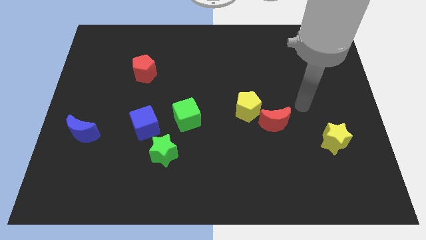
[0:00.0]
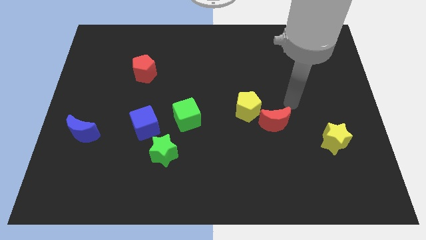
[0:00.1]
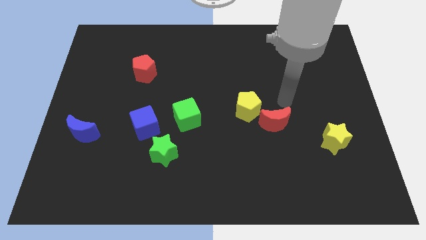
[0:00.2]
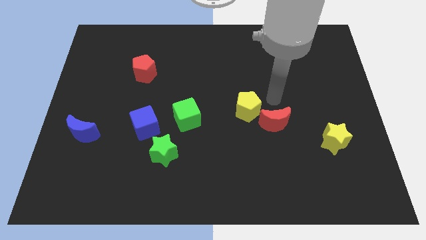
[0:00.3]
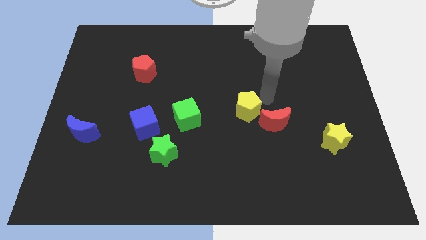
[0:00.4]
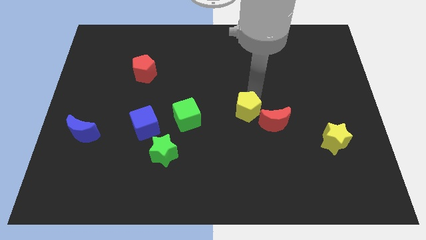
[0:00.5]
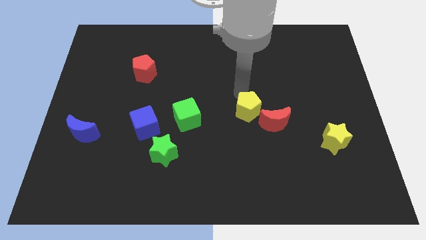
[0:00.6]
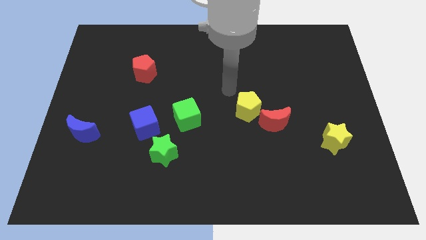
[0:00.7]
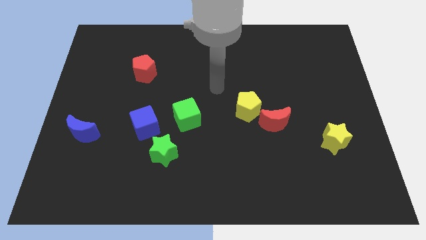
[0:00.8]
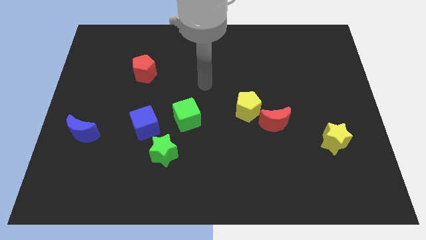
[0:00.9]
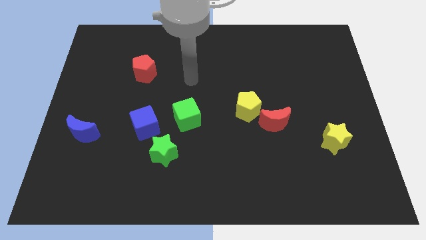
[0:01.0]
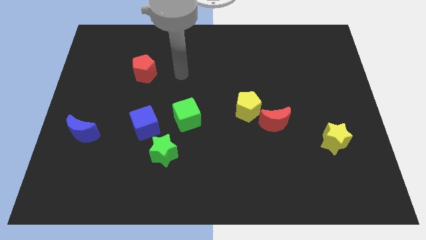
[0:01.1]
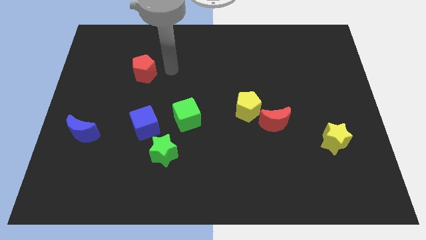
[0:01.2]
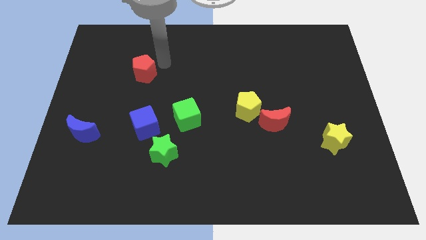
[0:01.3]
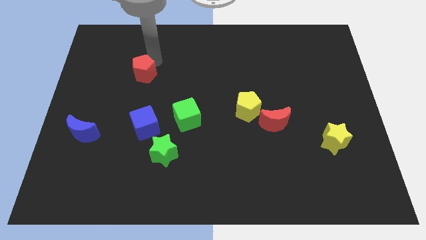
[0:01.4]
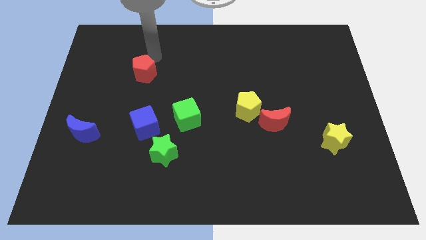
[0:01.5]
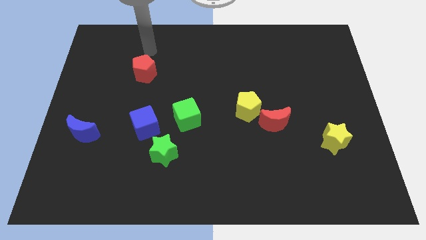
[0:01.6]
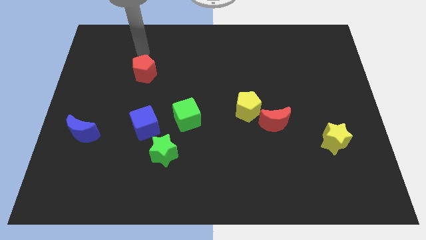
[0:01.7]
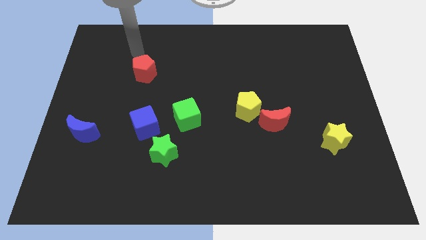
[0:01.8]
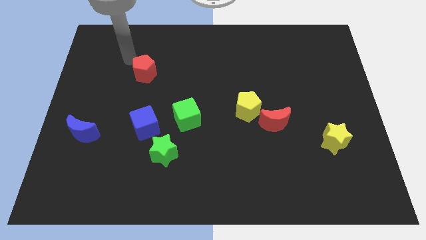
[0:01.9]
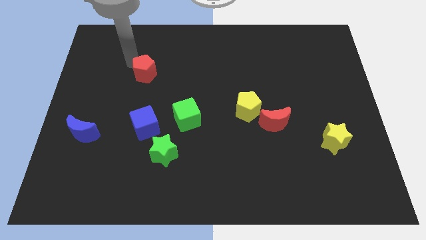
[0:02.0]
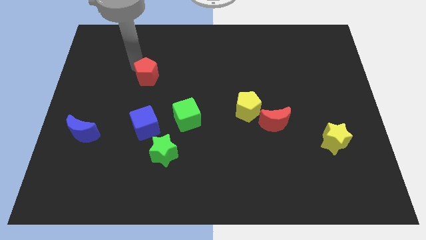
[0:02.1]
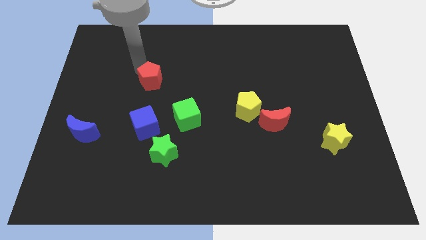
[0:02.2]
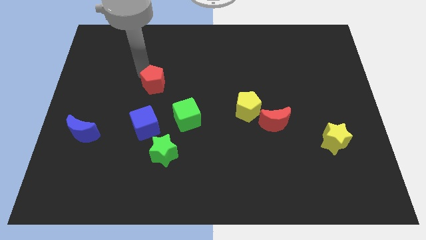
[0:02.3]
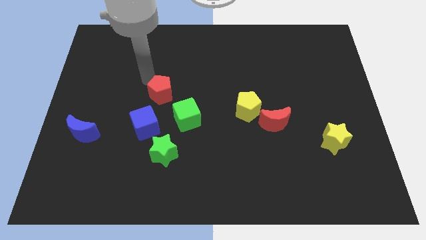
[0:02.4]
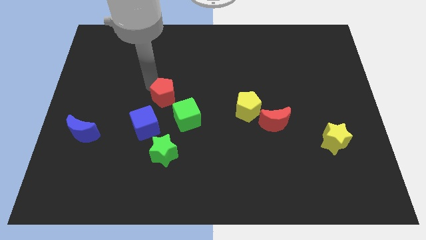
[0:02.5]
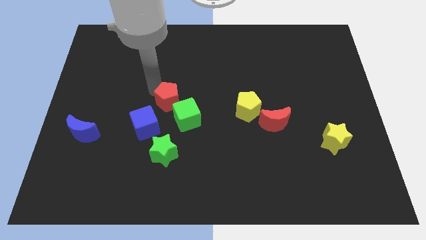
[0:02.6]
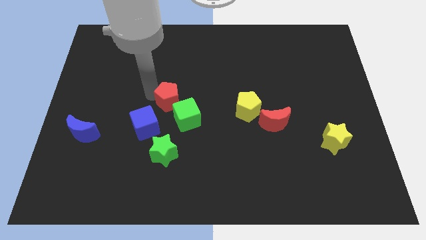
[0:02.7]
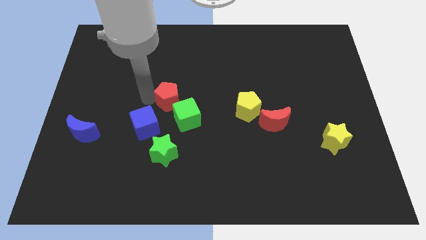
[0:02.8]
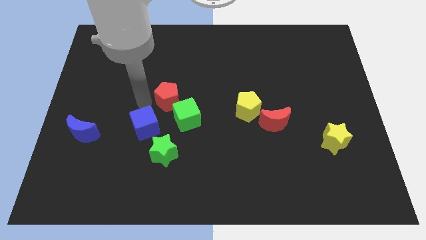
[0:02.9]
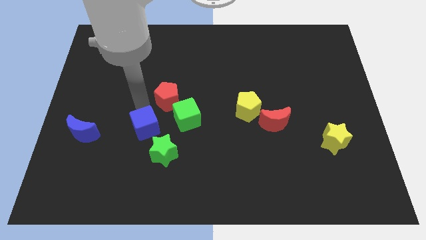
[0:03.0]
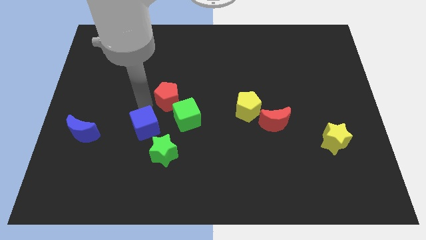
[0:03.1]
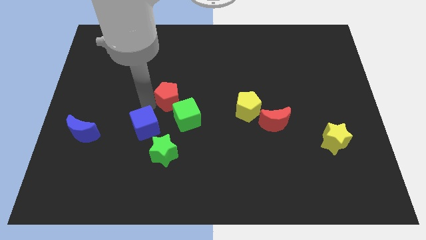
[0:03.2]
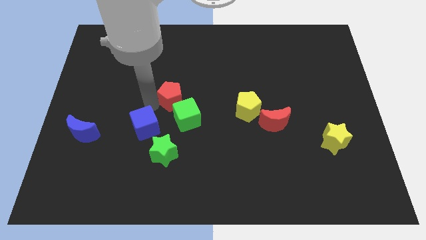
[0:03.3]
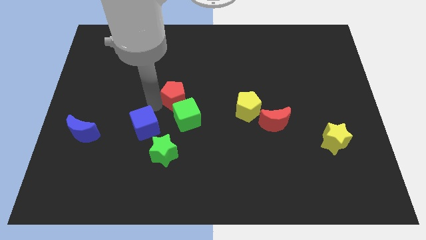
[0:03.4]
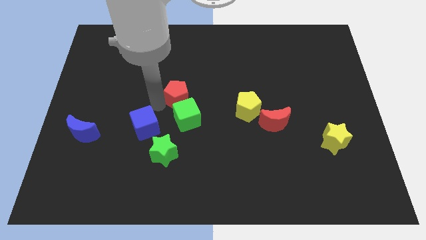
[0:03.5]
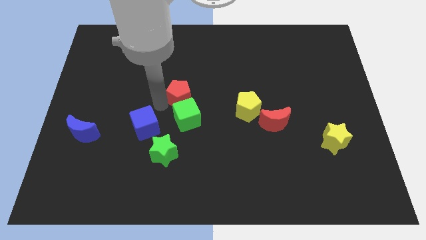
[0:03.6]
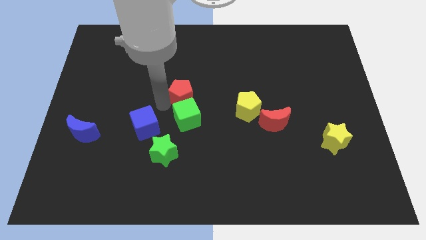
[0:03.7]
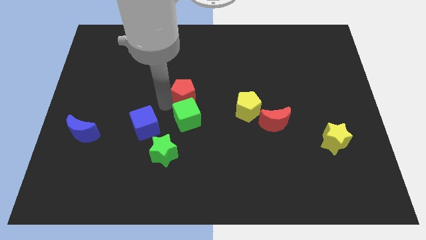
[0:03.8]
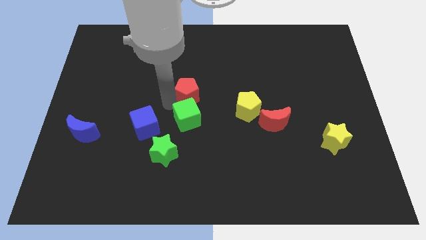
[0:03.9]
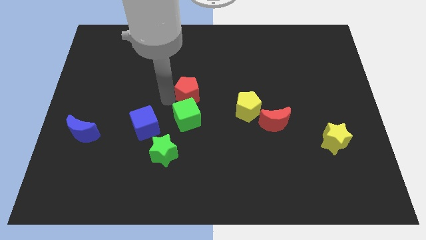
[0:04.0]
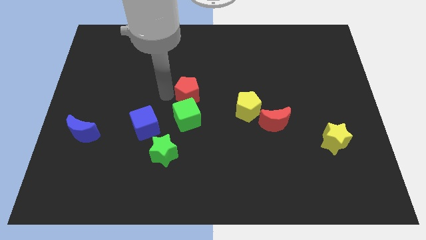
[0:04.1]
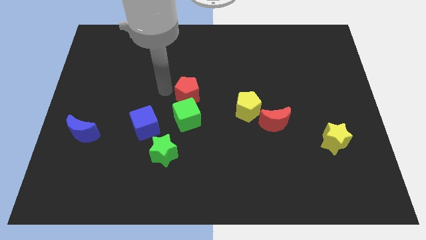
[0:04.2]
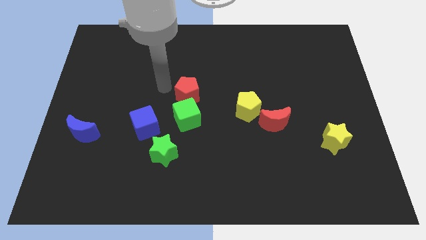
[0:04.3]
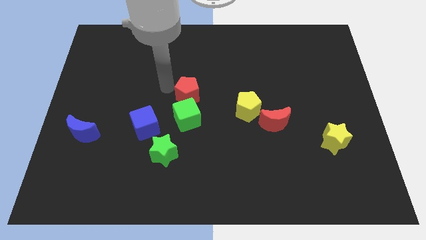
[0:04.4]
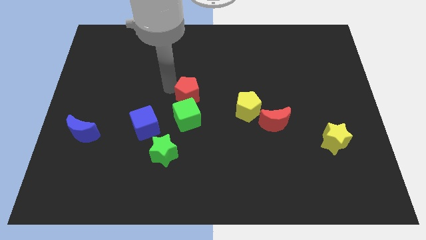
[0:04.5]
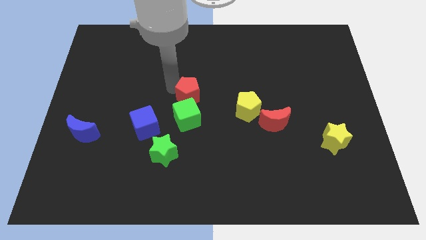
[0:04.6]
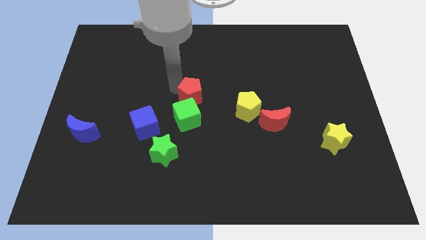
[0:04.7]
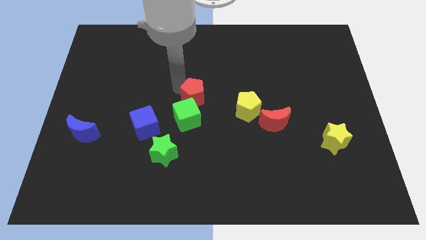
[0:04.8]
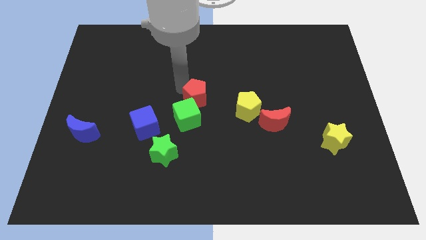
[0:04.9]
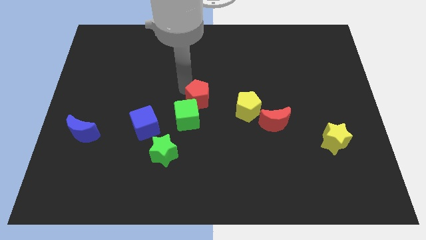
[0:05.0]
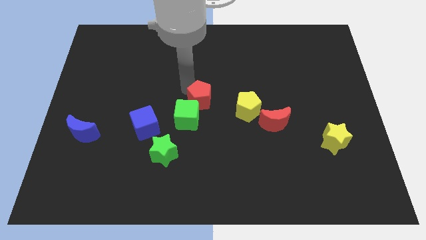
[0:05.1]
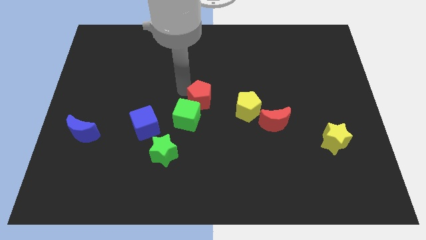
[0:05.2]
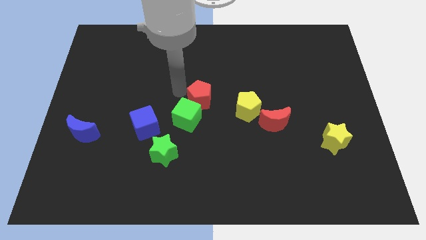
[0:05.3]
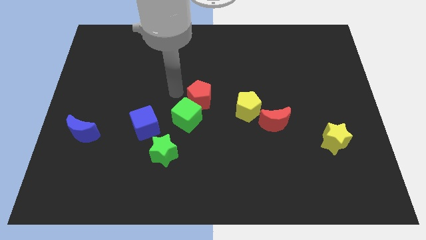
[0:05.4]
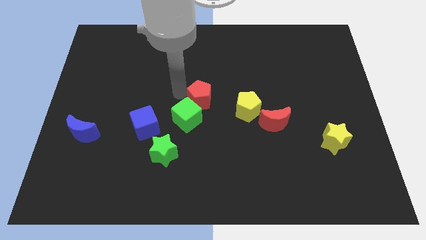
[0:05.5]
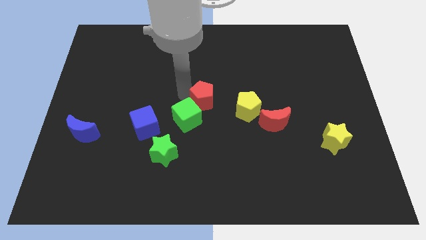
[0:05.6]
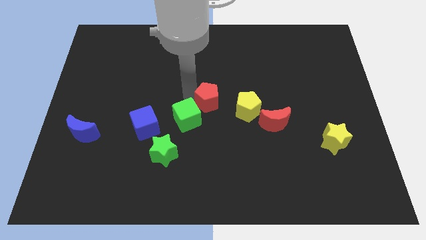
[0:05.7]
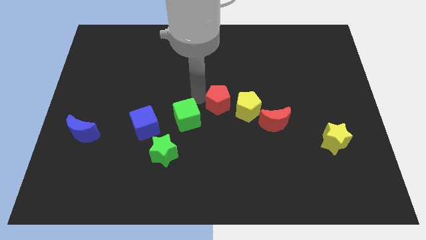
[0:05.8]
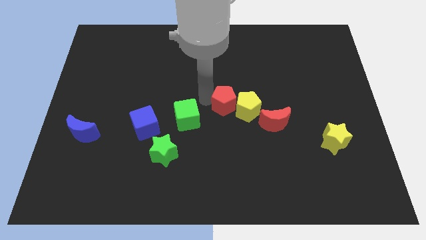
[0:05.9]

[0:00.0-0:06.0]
push the red pentagon close to the yellow pentagon

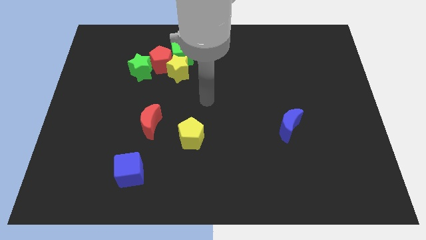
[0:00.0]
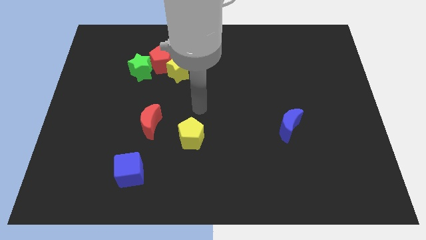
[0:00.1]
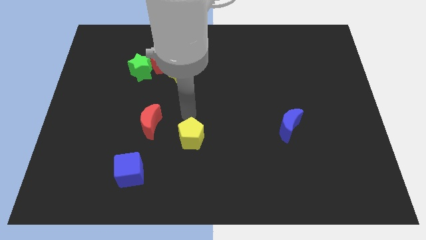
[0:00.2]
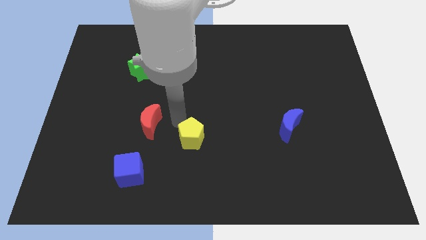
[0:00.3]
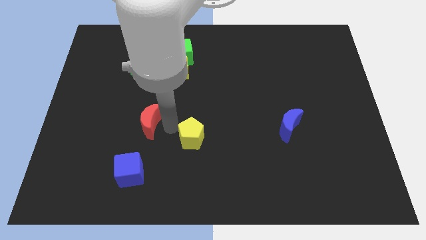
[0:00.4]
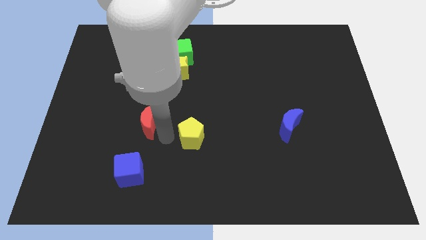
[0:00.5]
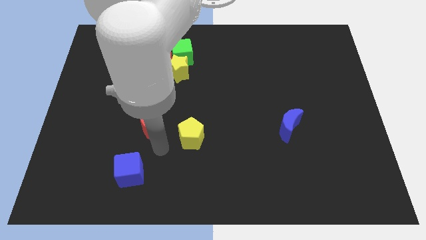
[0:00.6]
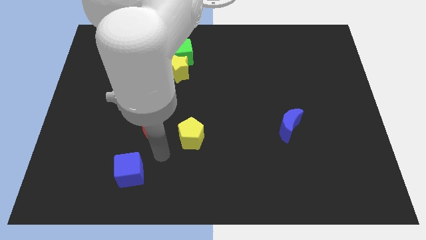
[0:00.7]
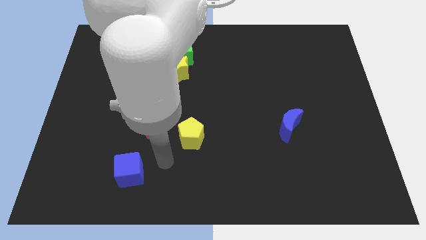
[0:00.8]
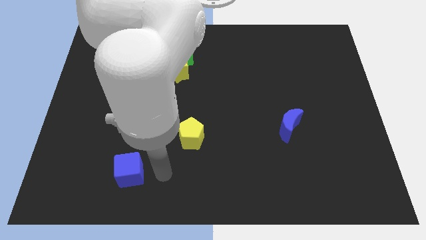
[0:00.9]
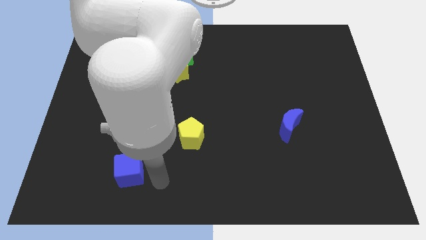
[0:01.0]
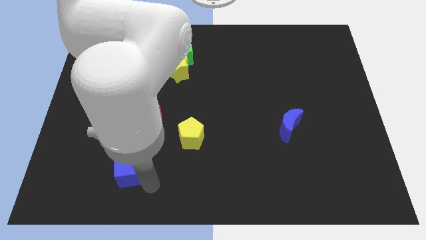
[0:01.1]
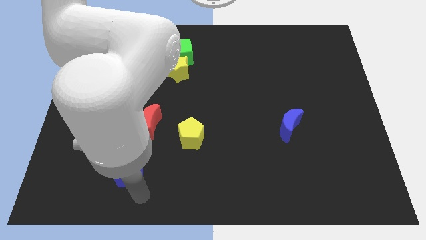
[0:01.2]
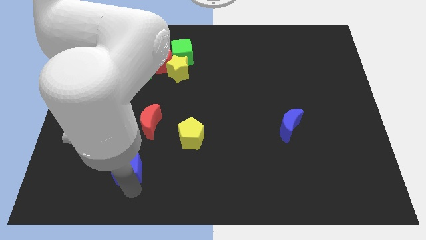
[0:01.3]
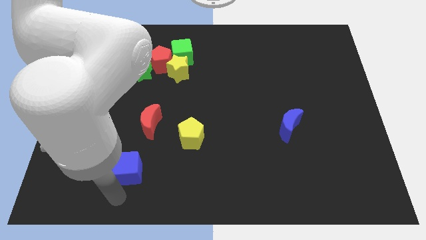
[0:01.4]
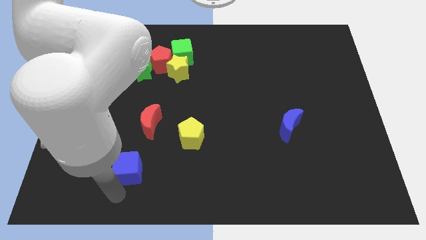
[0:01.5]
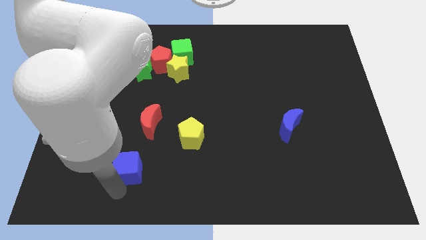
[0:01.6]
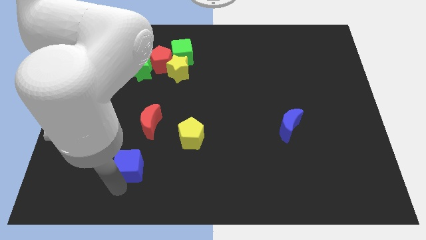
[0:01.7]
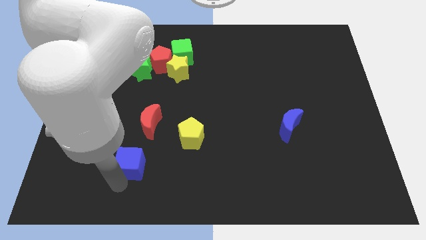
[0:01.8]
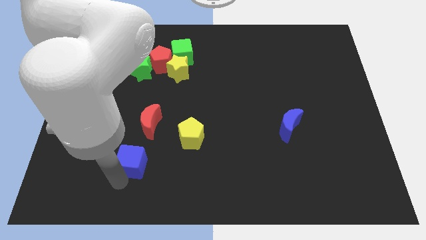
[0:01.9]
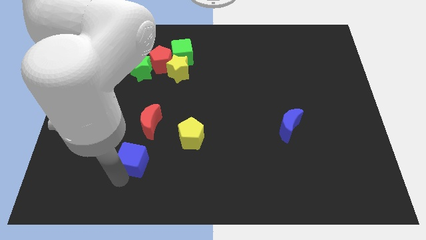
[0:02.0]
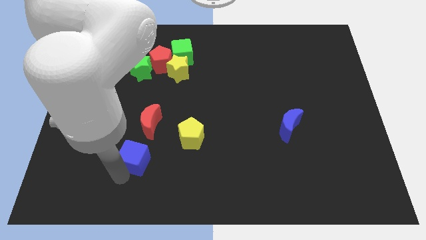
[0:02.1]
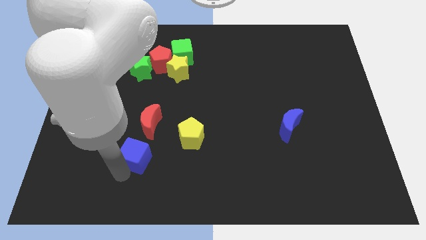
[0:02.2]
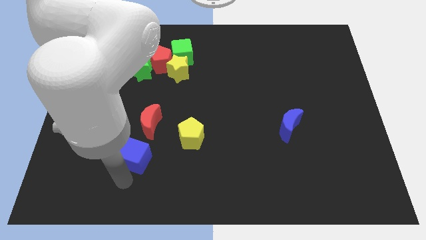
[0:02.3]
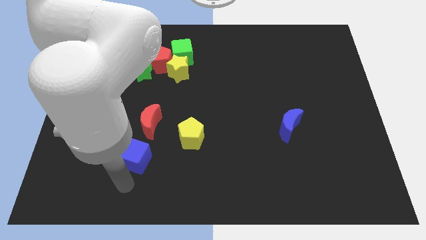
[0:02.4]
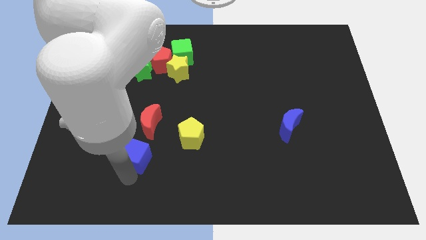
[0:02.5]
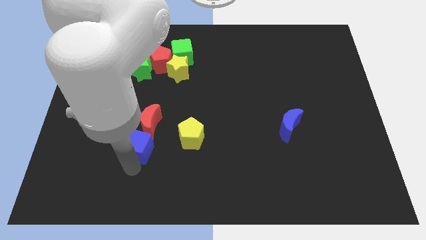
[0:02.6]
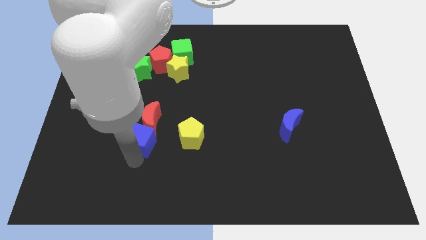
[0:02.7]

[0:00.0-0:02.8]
put the blue cube close to the red moon
